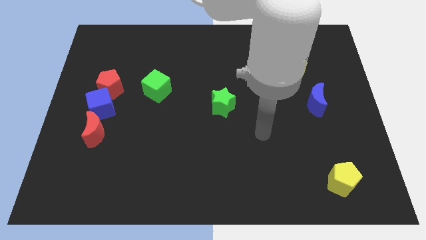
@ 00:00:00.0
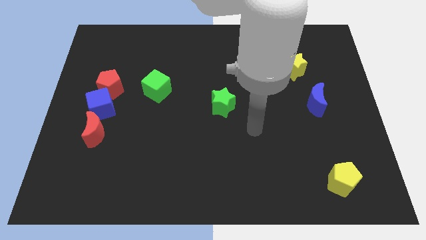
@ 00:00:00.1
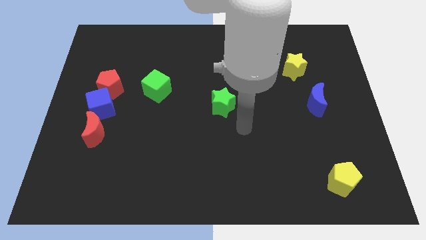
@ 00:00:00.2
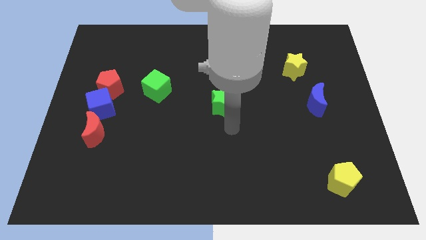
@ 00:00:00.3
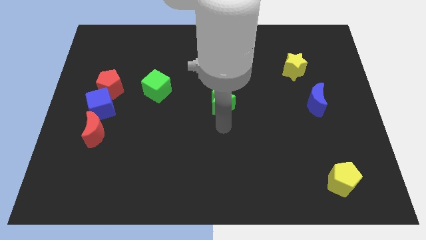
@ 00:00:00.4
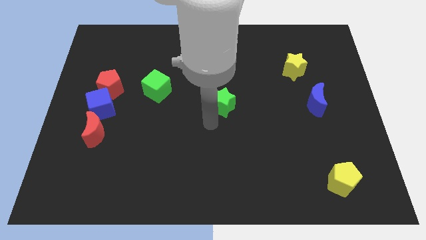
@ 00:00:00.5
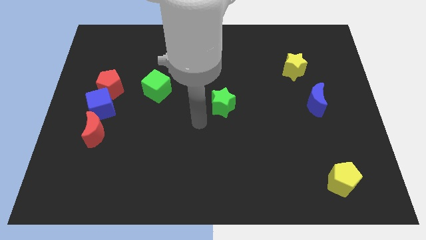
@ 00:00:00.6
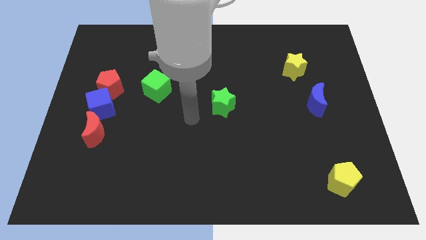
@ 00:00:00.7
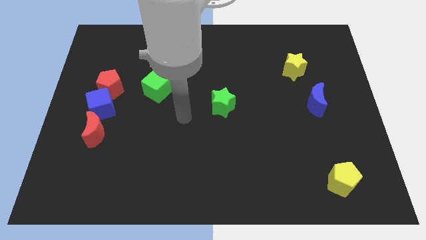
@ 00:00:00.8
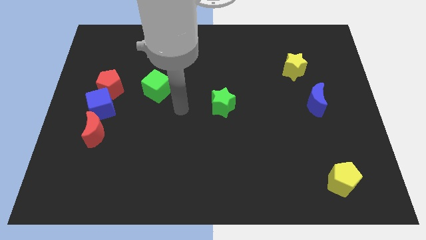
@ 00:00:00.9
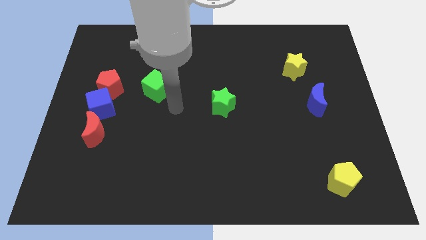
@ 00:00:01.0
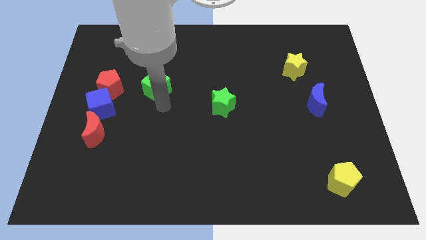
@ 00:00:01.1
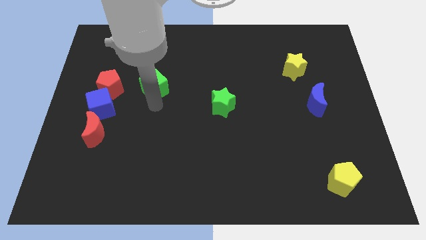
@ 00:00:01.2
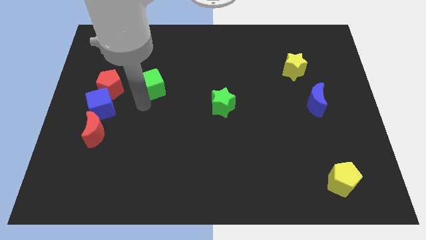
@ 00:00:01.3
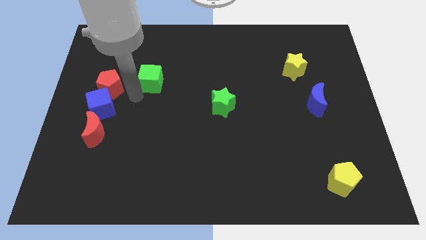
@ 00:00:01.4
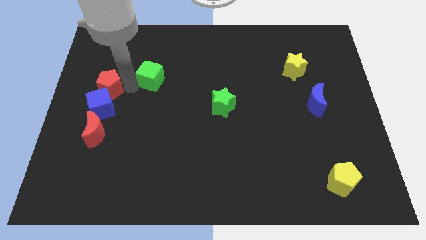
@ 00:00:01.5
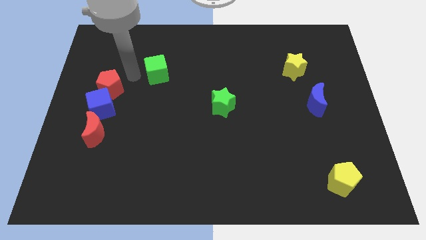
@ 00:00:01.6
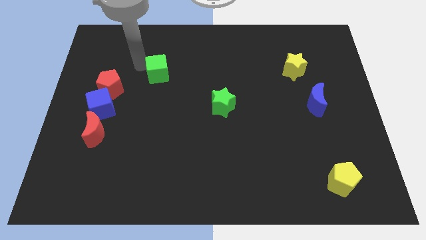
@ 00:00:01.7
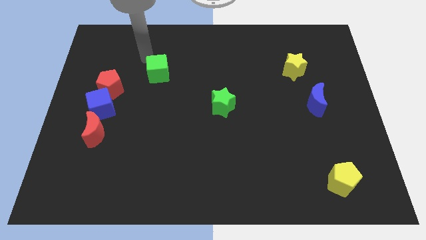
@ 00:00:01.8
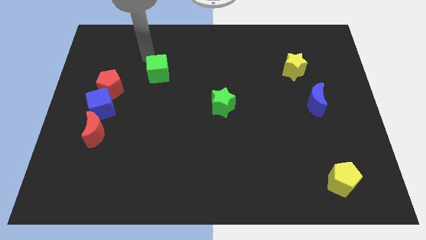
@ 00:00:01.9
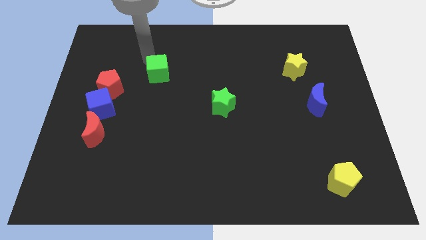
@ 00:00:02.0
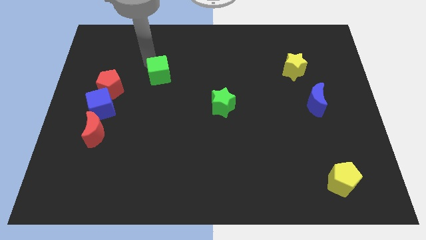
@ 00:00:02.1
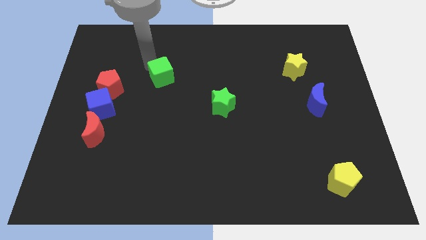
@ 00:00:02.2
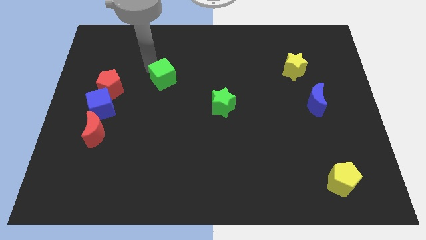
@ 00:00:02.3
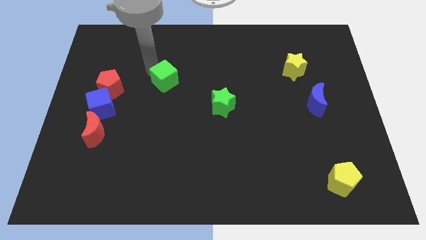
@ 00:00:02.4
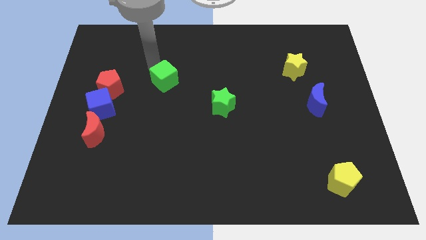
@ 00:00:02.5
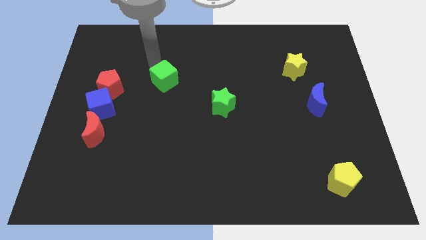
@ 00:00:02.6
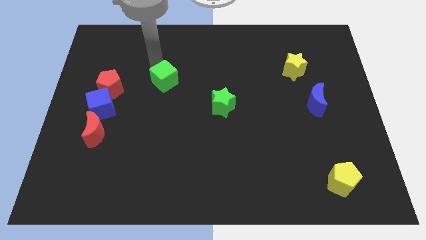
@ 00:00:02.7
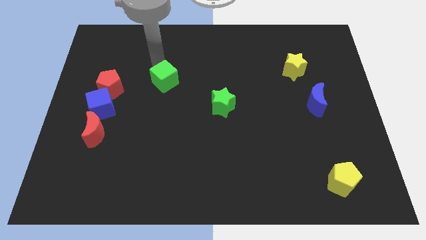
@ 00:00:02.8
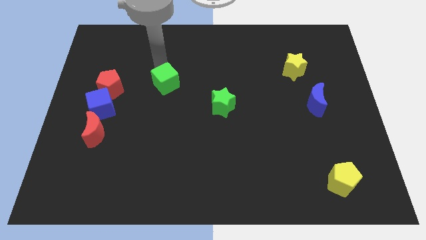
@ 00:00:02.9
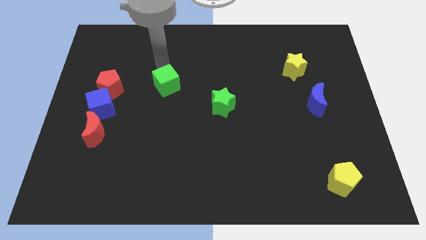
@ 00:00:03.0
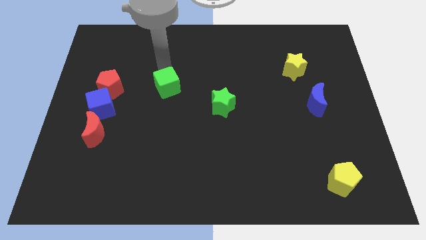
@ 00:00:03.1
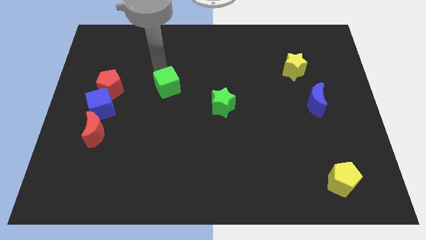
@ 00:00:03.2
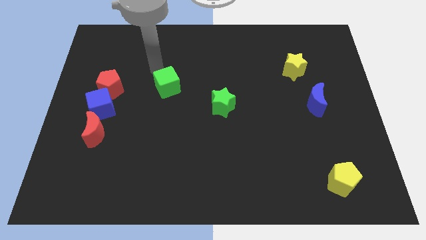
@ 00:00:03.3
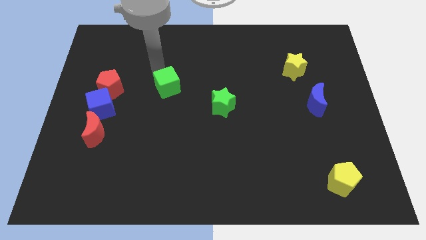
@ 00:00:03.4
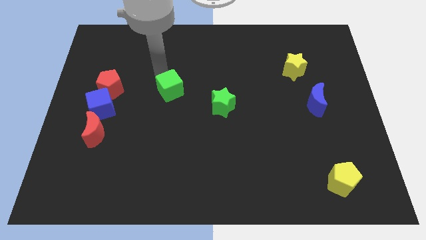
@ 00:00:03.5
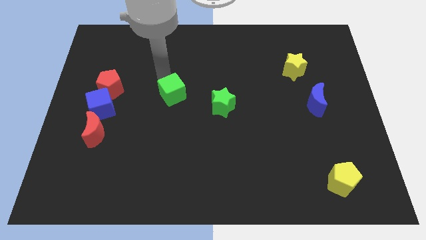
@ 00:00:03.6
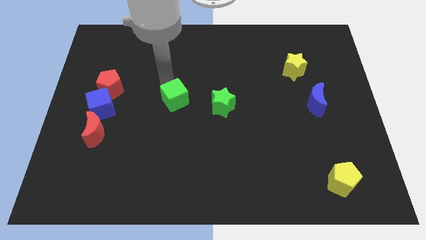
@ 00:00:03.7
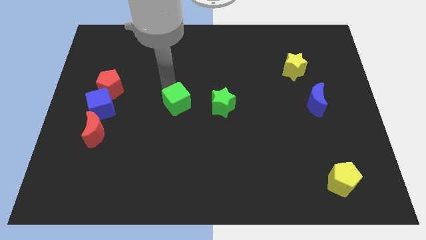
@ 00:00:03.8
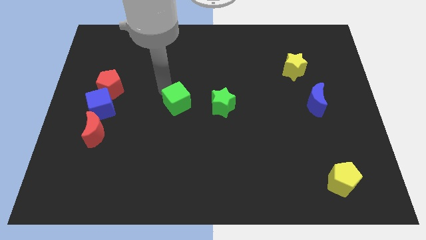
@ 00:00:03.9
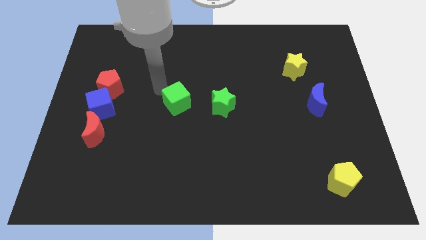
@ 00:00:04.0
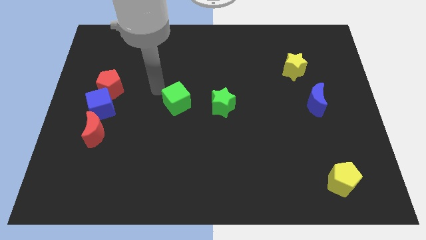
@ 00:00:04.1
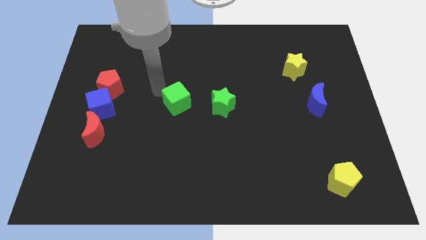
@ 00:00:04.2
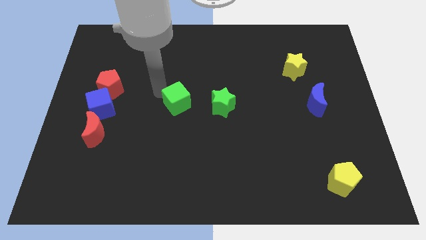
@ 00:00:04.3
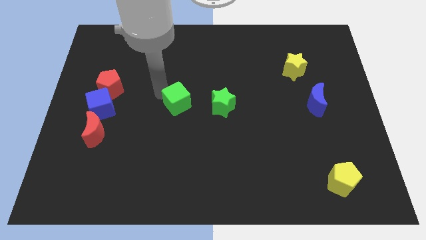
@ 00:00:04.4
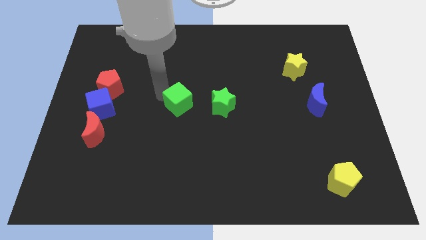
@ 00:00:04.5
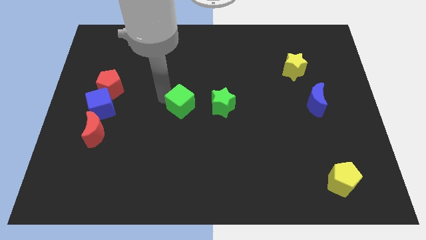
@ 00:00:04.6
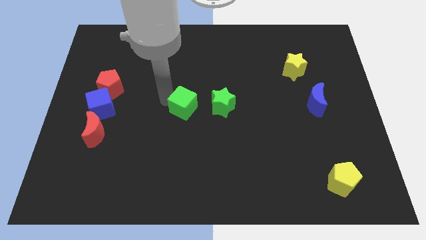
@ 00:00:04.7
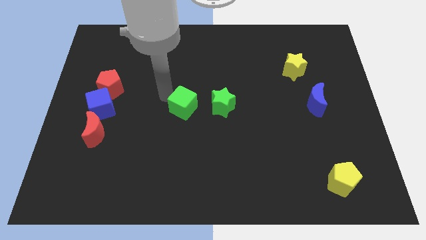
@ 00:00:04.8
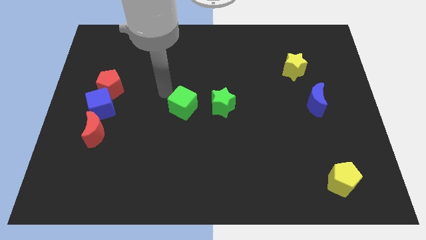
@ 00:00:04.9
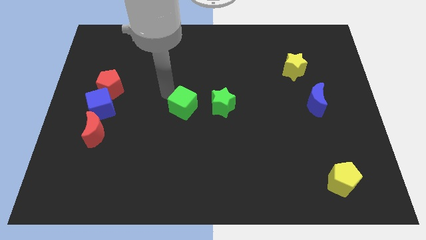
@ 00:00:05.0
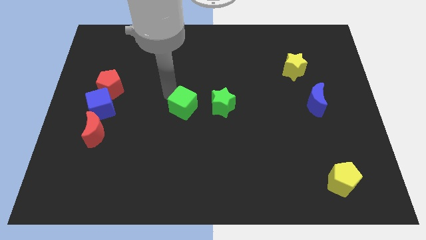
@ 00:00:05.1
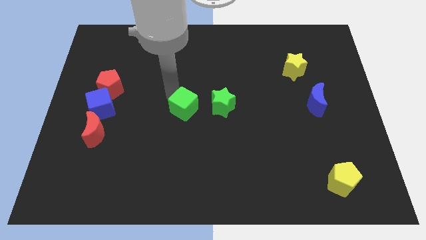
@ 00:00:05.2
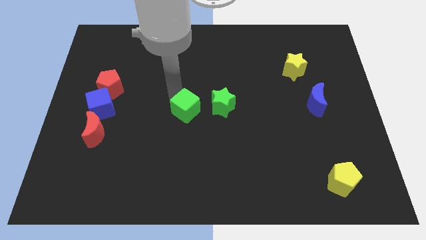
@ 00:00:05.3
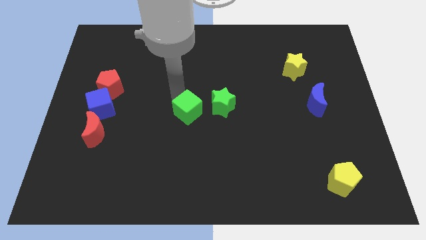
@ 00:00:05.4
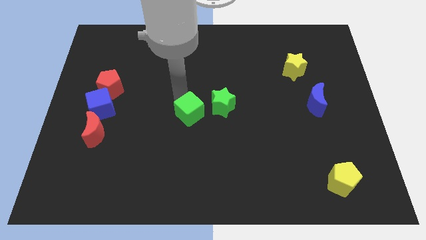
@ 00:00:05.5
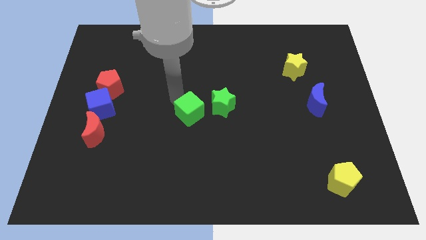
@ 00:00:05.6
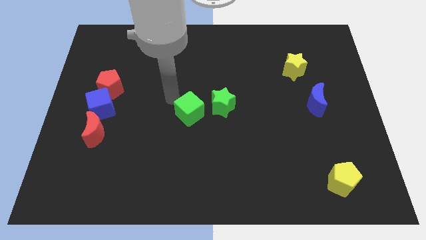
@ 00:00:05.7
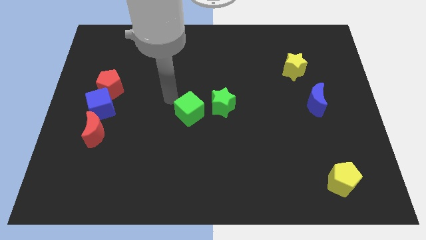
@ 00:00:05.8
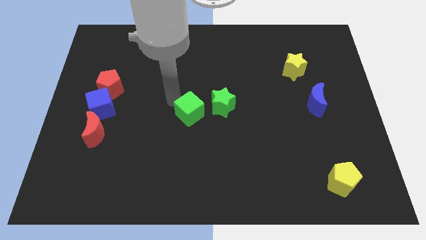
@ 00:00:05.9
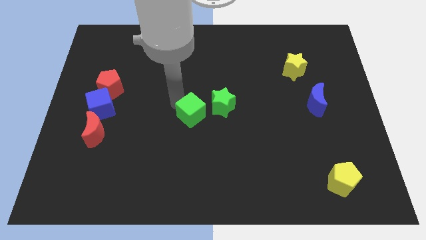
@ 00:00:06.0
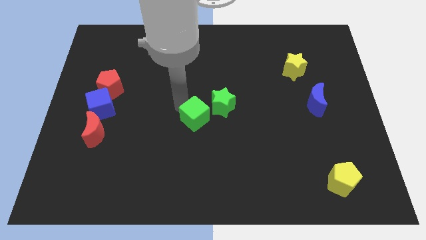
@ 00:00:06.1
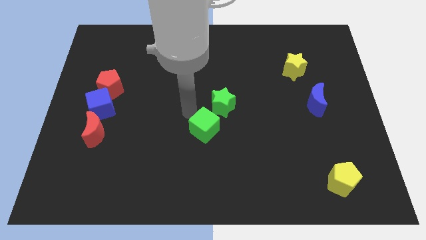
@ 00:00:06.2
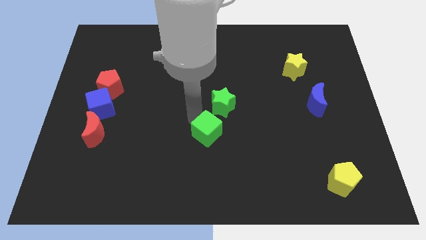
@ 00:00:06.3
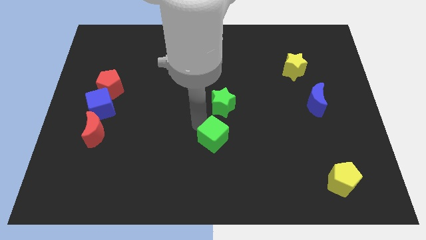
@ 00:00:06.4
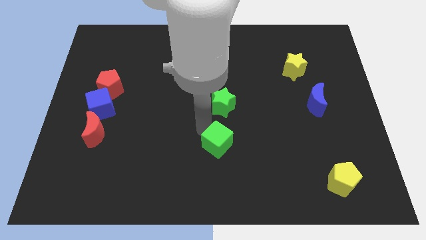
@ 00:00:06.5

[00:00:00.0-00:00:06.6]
push the green cube down and to the right

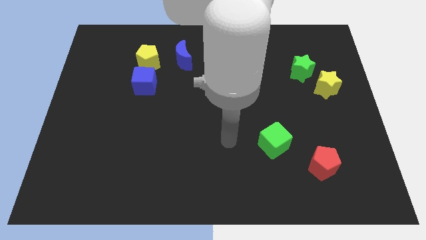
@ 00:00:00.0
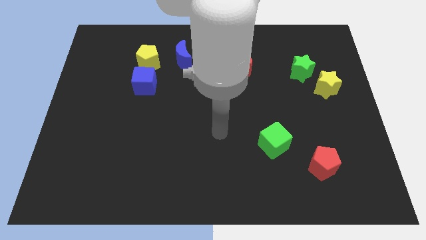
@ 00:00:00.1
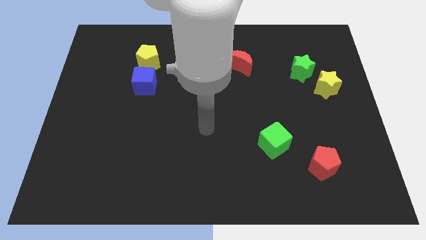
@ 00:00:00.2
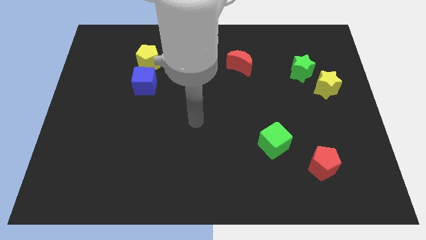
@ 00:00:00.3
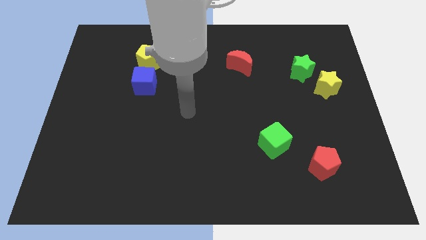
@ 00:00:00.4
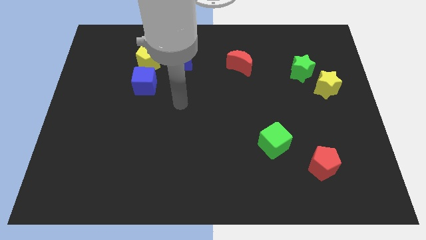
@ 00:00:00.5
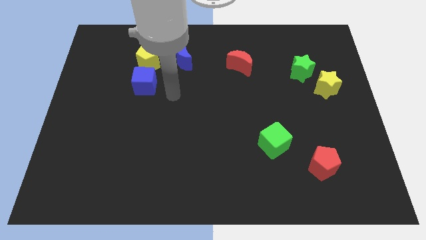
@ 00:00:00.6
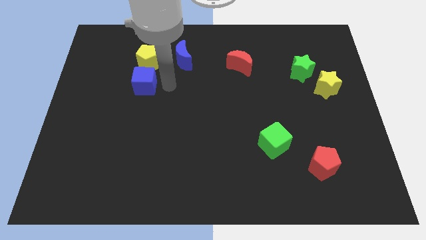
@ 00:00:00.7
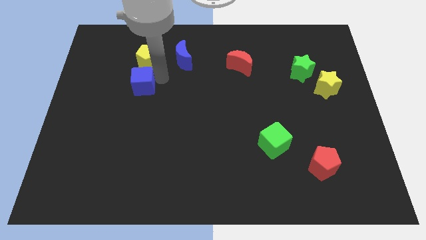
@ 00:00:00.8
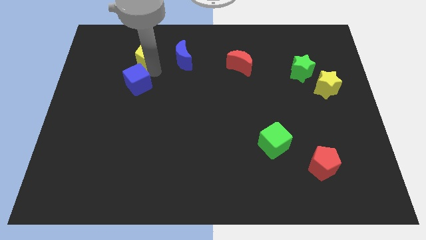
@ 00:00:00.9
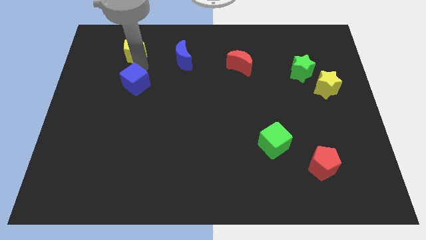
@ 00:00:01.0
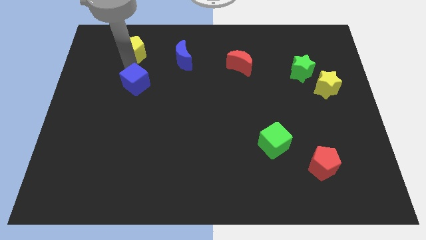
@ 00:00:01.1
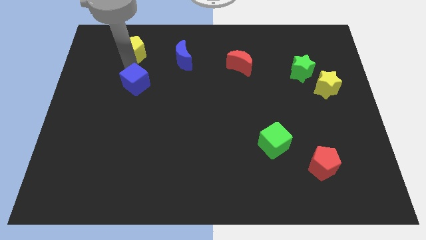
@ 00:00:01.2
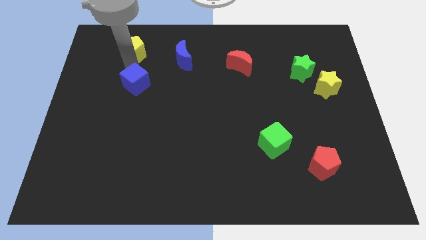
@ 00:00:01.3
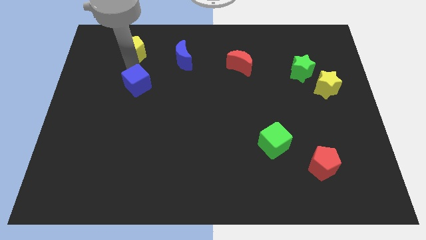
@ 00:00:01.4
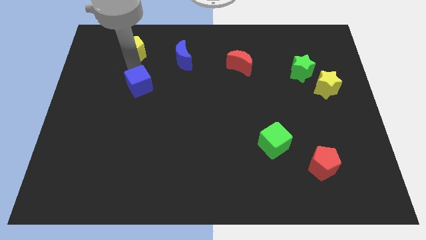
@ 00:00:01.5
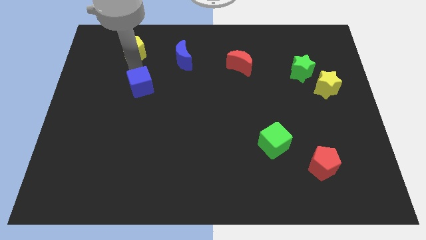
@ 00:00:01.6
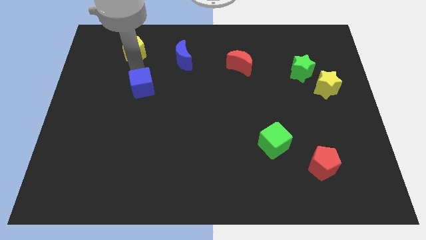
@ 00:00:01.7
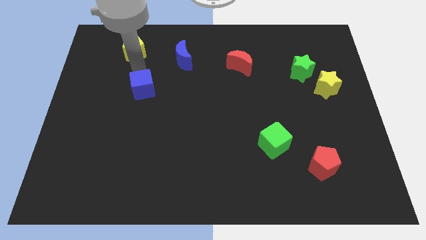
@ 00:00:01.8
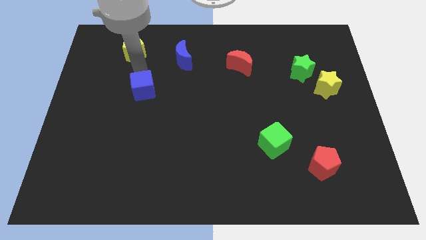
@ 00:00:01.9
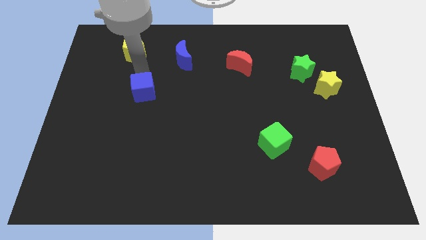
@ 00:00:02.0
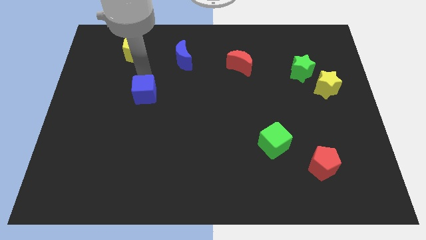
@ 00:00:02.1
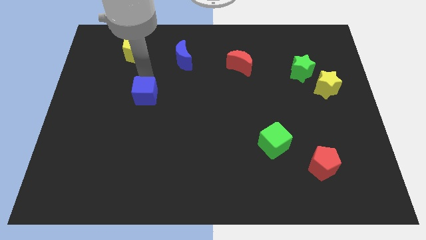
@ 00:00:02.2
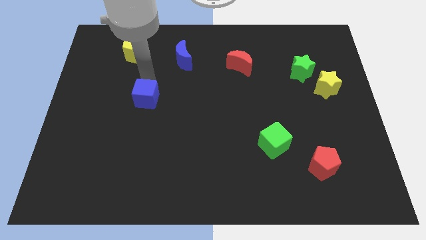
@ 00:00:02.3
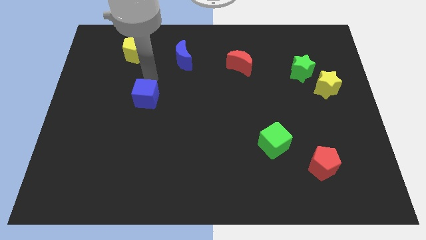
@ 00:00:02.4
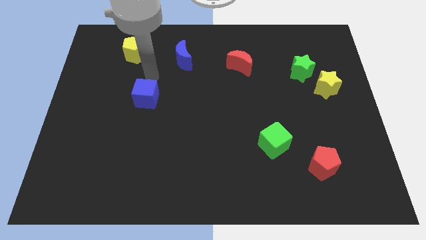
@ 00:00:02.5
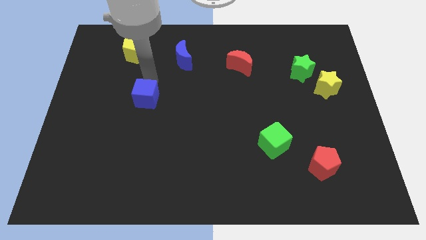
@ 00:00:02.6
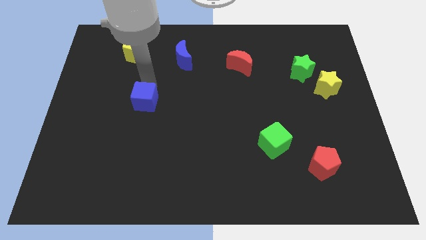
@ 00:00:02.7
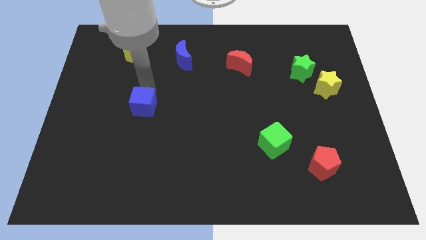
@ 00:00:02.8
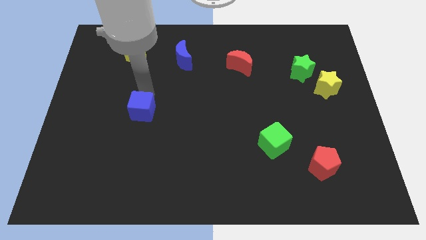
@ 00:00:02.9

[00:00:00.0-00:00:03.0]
slide the blue cube down a little
